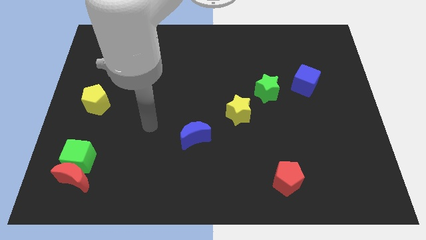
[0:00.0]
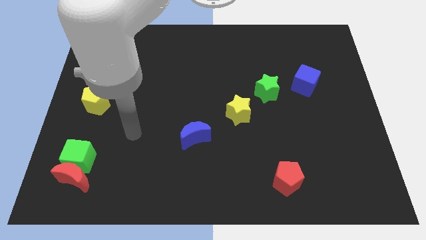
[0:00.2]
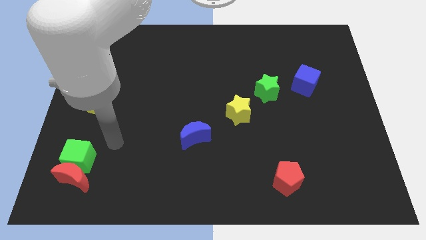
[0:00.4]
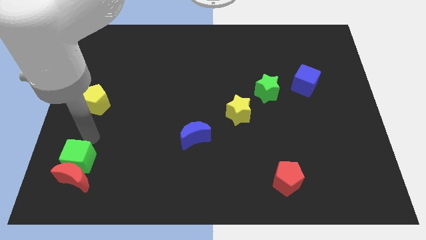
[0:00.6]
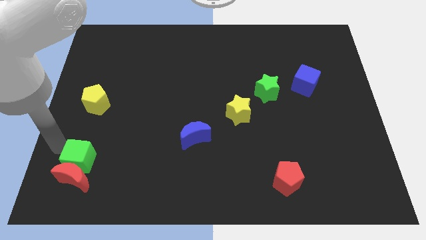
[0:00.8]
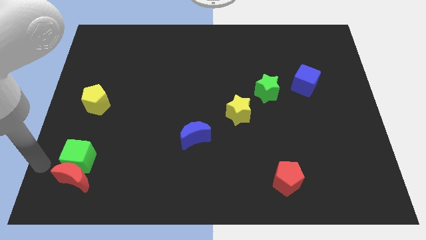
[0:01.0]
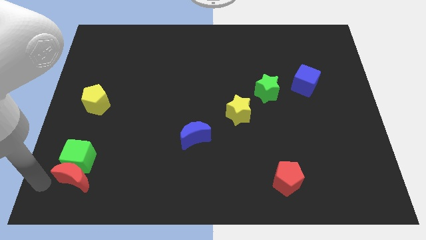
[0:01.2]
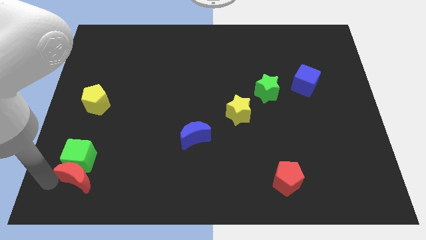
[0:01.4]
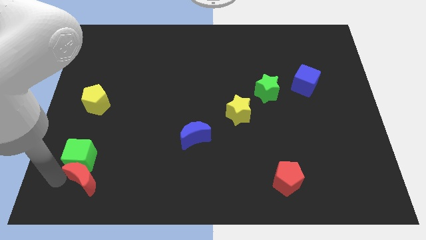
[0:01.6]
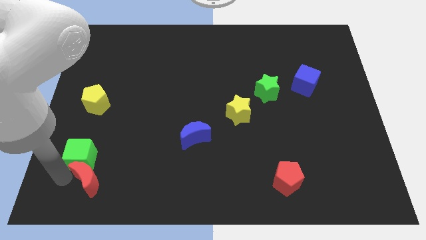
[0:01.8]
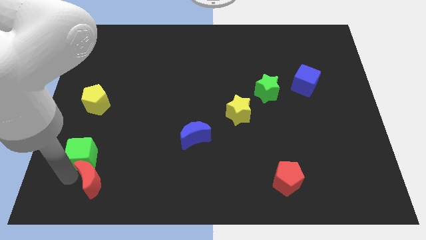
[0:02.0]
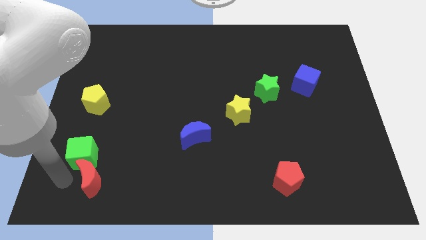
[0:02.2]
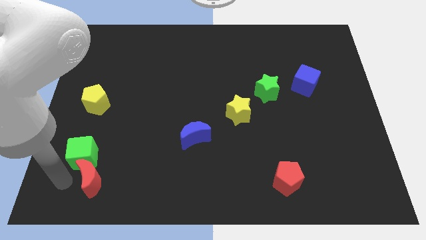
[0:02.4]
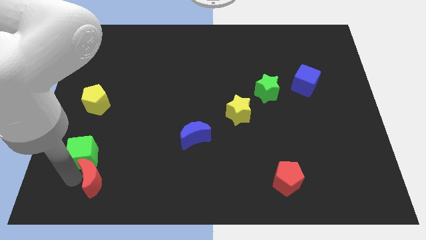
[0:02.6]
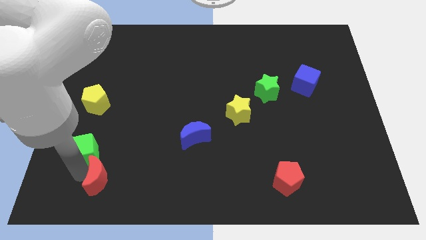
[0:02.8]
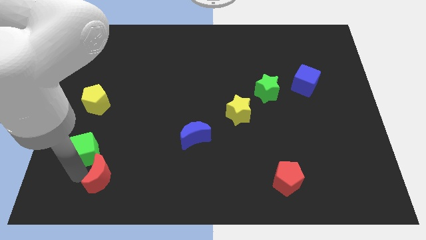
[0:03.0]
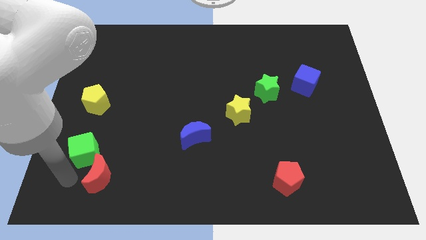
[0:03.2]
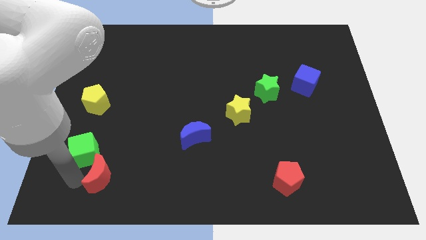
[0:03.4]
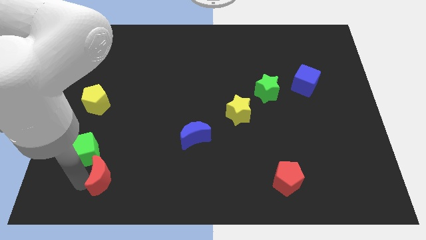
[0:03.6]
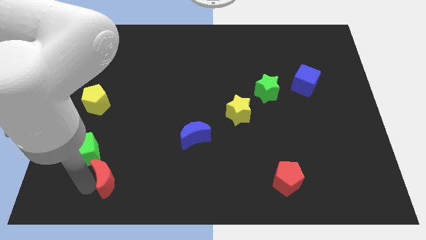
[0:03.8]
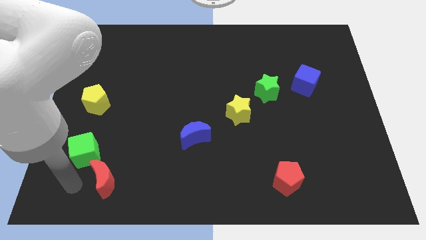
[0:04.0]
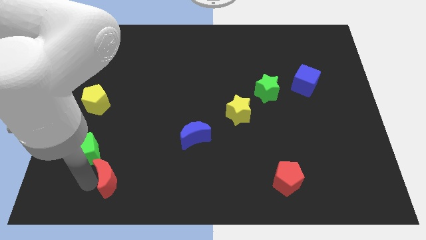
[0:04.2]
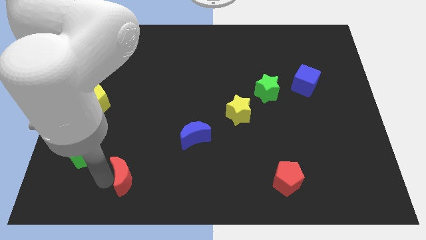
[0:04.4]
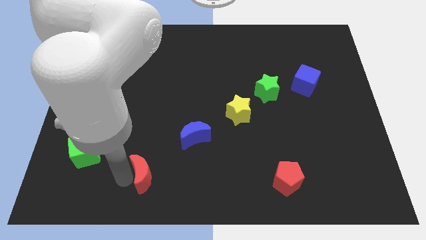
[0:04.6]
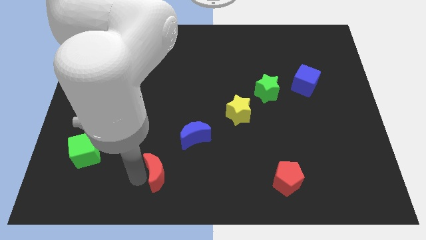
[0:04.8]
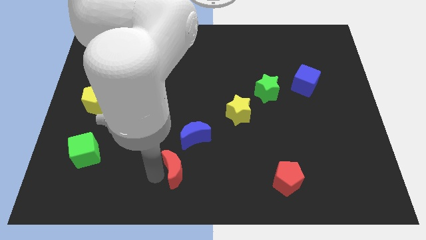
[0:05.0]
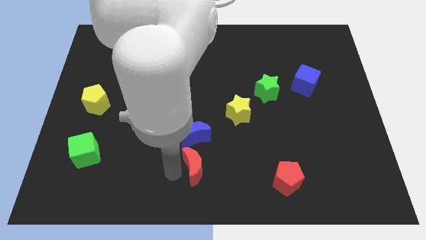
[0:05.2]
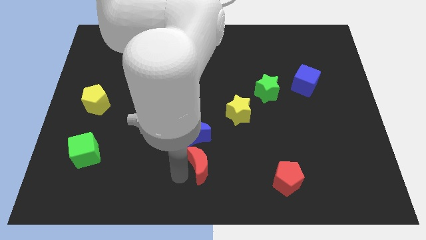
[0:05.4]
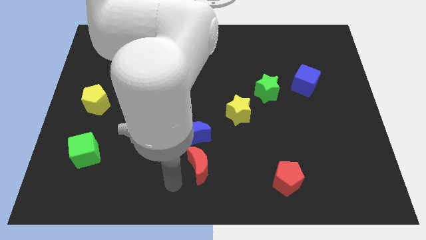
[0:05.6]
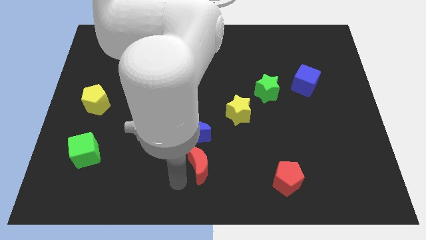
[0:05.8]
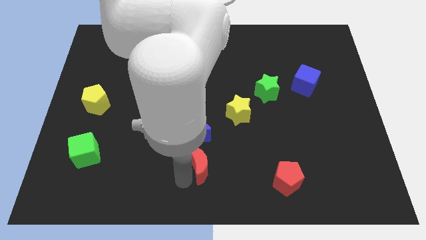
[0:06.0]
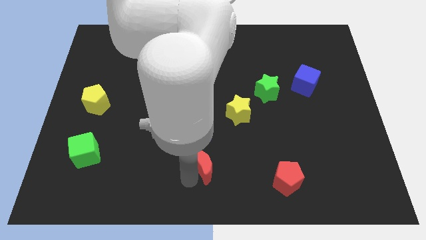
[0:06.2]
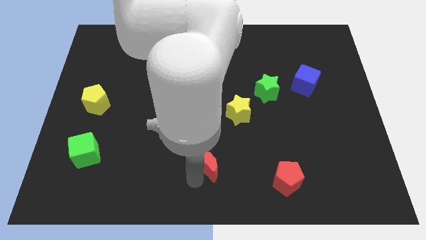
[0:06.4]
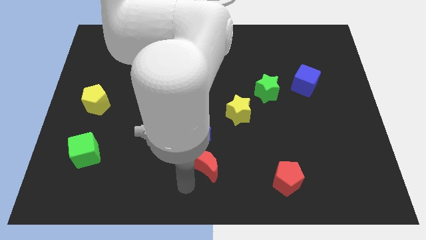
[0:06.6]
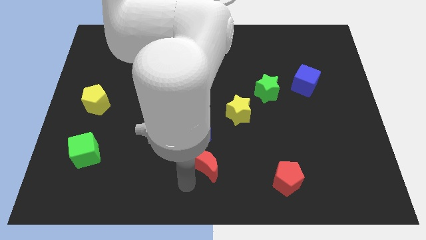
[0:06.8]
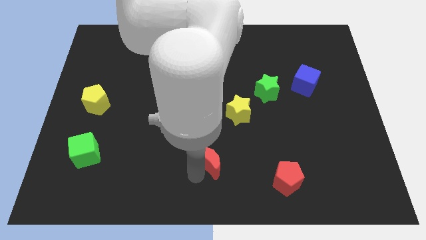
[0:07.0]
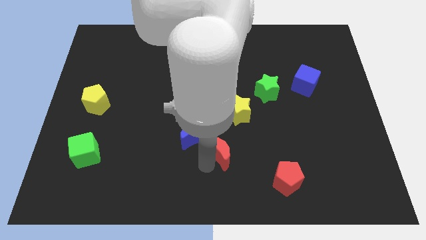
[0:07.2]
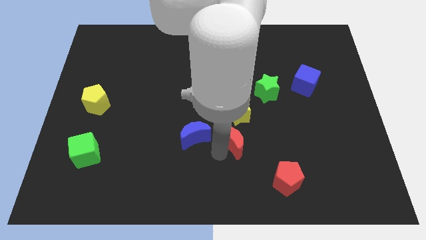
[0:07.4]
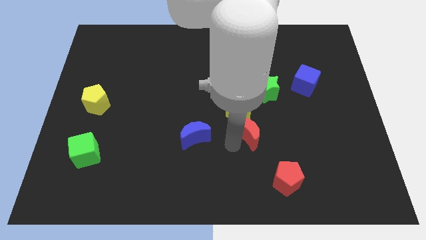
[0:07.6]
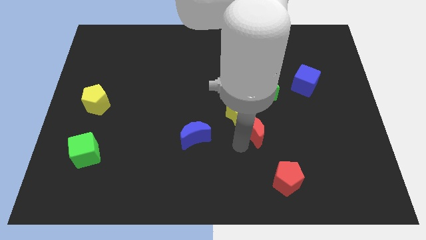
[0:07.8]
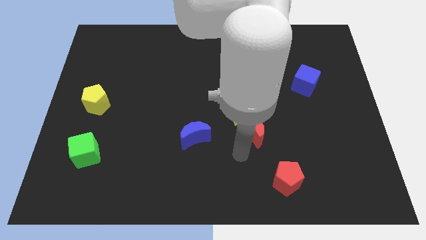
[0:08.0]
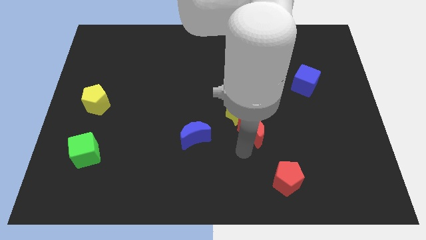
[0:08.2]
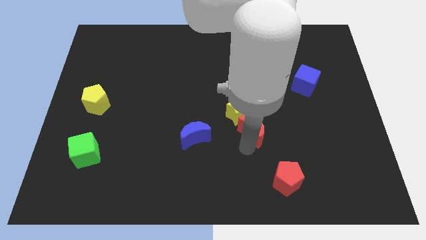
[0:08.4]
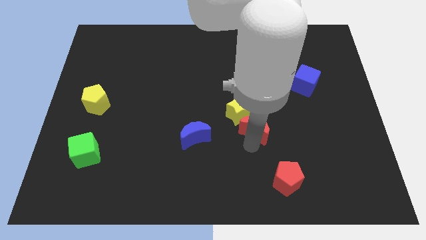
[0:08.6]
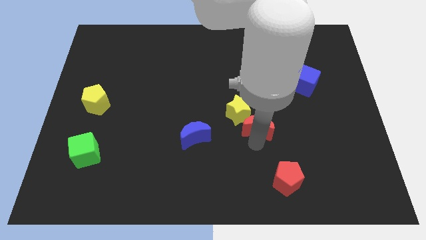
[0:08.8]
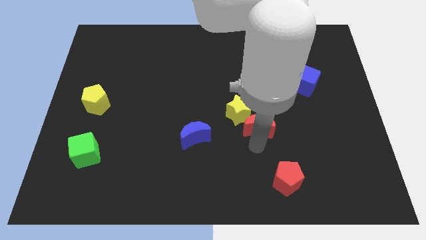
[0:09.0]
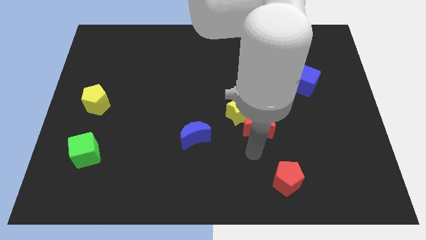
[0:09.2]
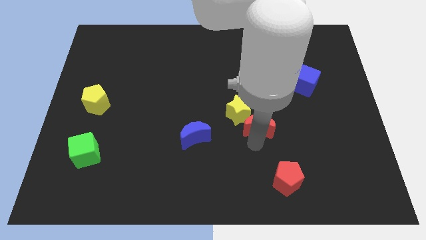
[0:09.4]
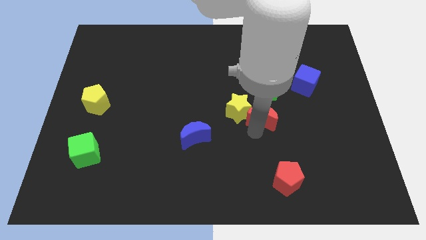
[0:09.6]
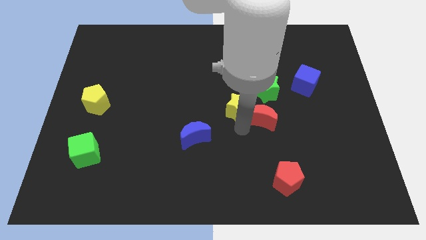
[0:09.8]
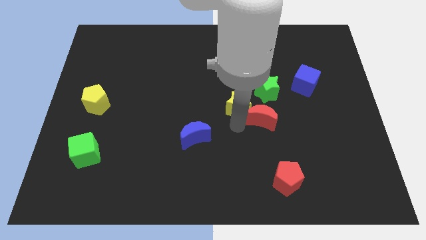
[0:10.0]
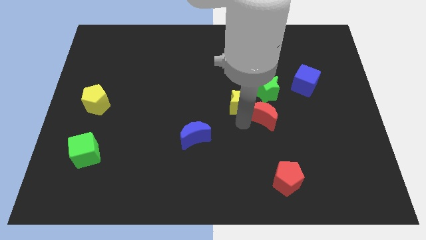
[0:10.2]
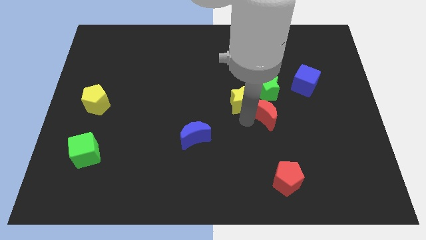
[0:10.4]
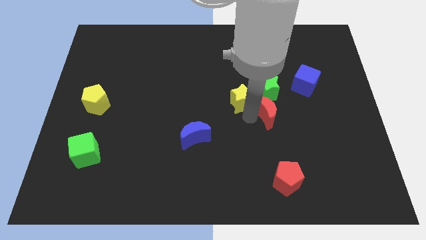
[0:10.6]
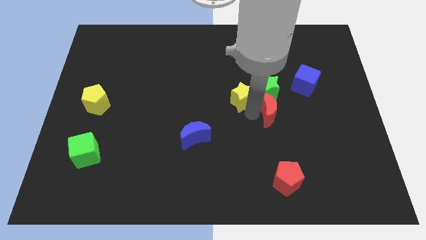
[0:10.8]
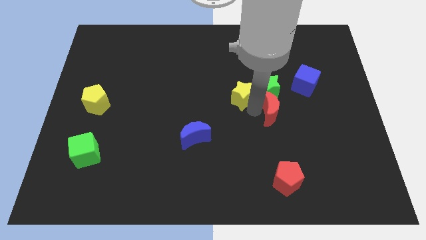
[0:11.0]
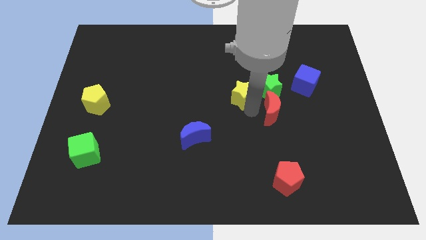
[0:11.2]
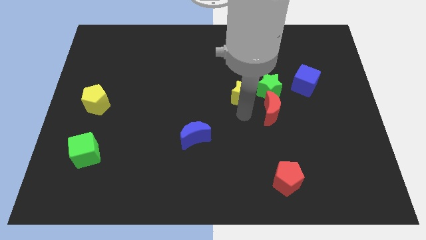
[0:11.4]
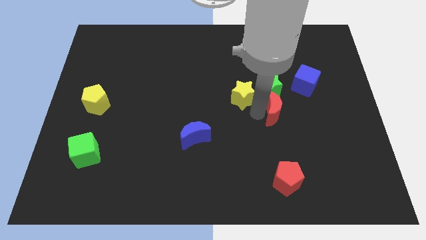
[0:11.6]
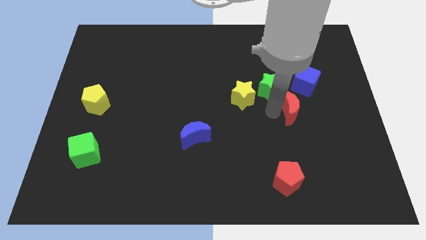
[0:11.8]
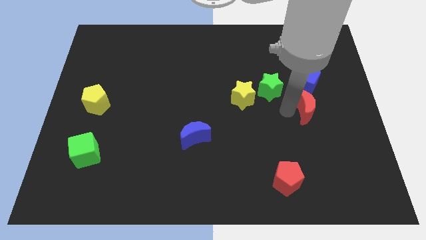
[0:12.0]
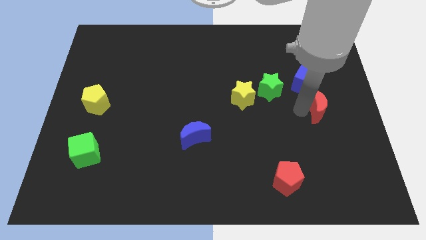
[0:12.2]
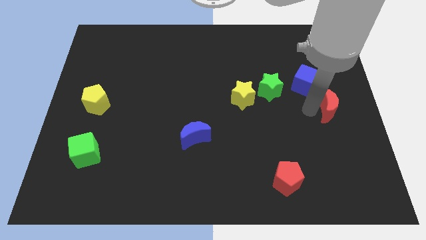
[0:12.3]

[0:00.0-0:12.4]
push the red moon to the right side of the board
